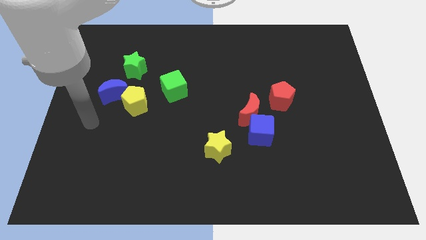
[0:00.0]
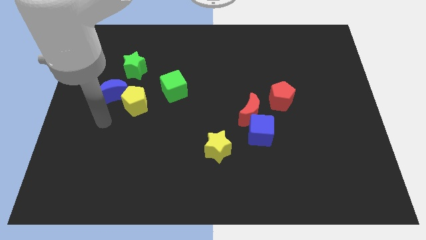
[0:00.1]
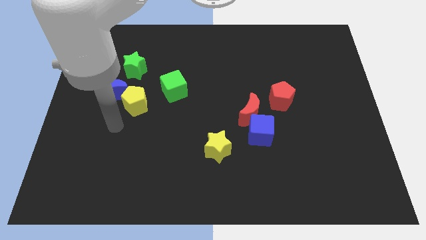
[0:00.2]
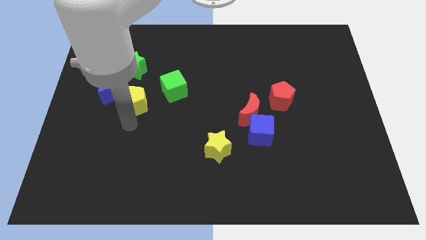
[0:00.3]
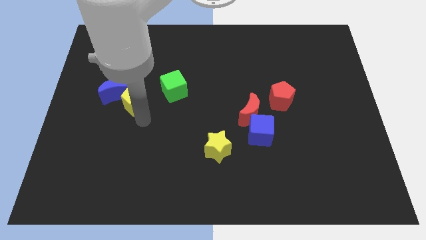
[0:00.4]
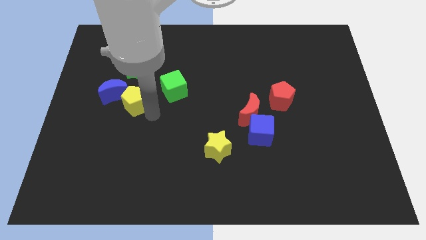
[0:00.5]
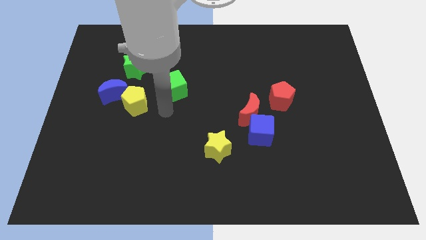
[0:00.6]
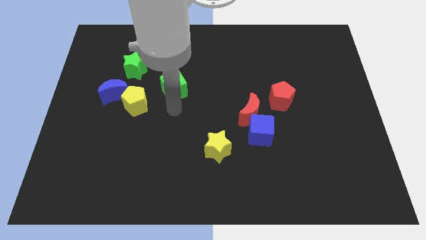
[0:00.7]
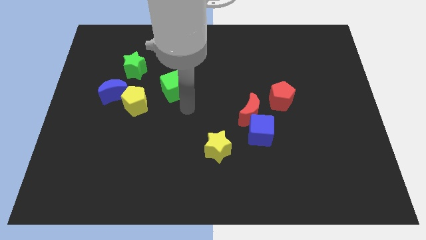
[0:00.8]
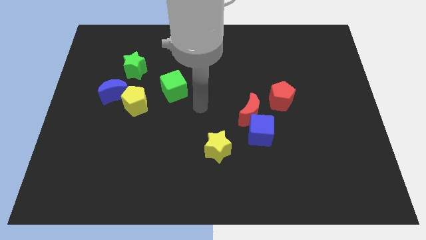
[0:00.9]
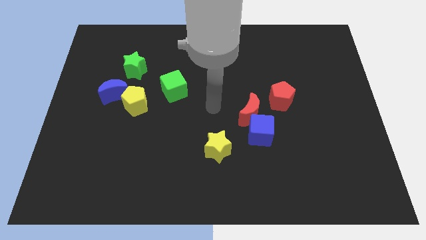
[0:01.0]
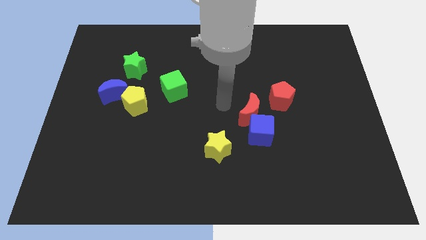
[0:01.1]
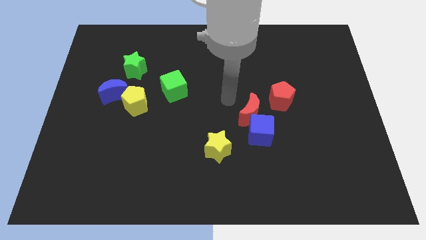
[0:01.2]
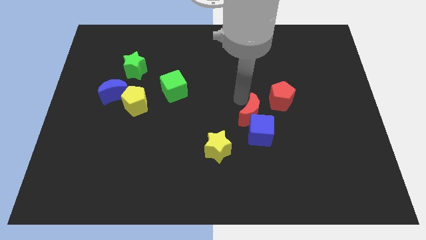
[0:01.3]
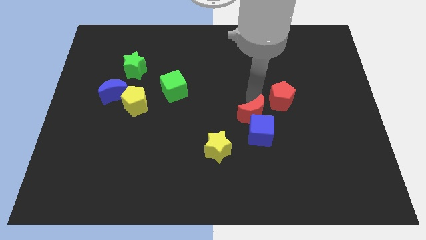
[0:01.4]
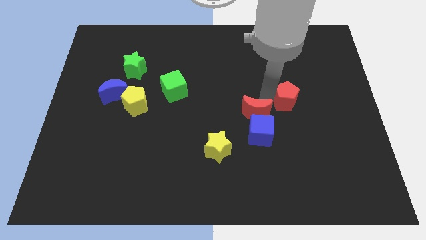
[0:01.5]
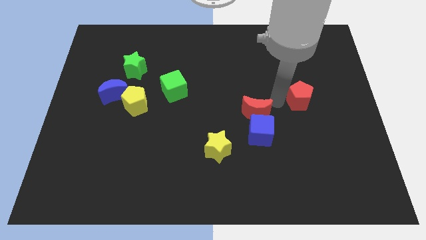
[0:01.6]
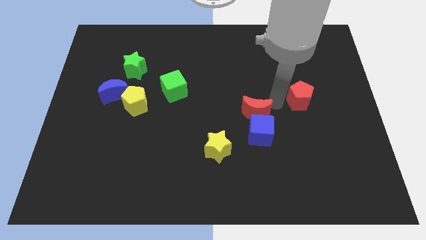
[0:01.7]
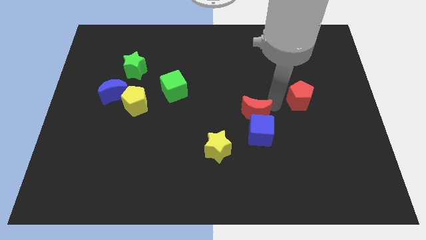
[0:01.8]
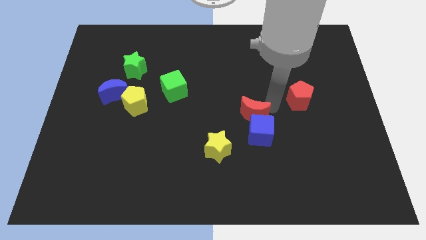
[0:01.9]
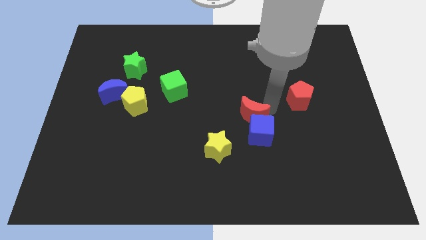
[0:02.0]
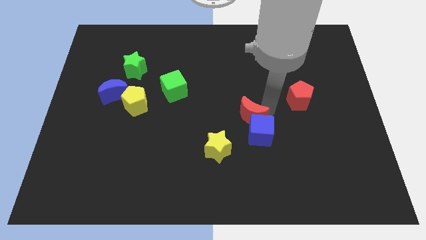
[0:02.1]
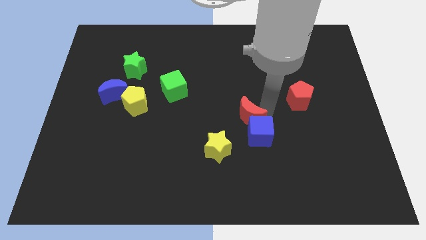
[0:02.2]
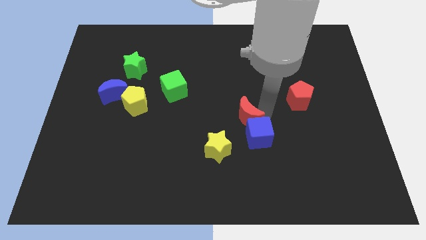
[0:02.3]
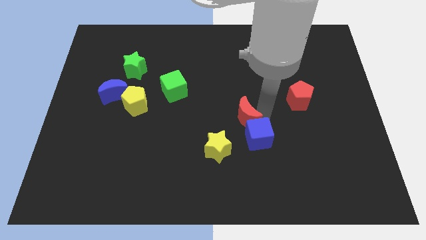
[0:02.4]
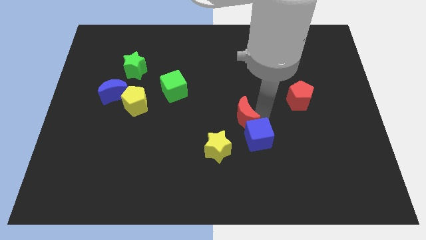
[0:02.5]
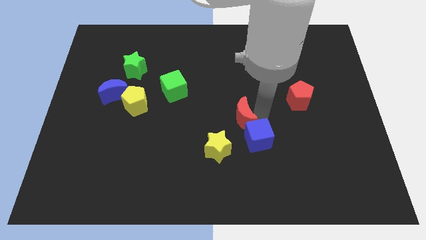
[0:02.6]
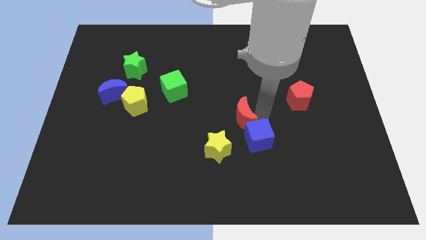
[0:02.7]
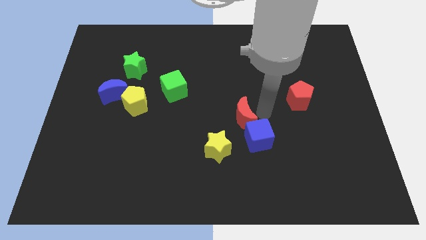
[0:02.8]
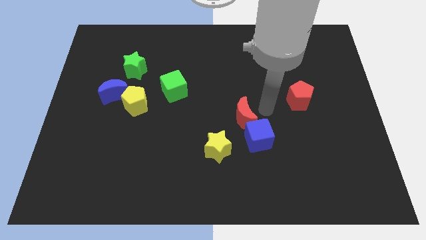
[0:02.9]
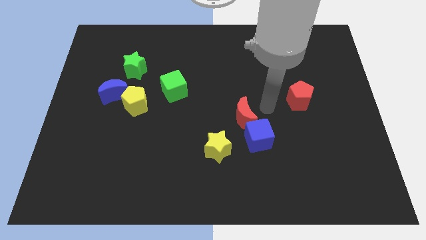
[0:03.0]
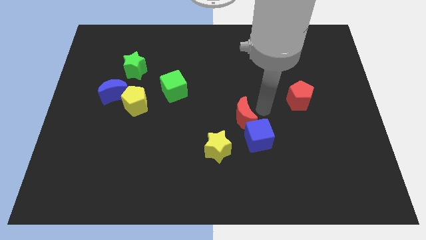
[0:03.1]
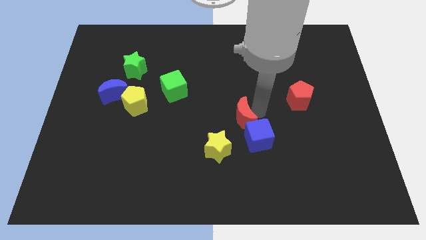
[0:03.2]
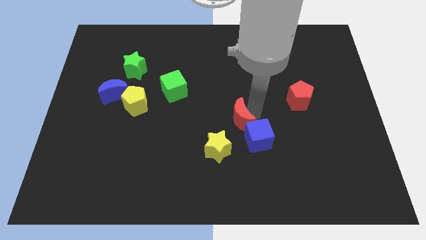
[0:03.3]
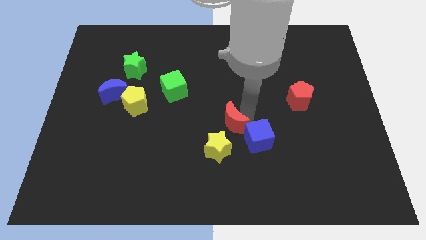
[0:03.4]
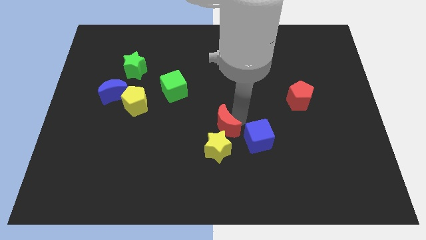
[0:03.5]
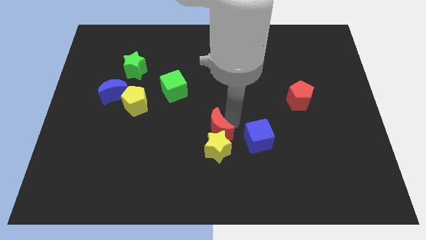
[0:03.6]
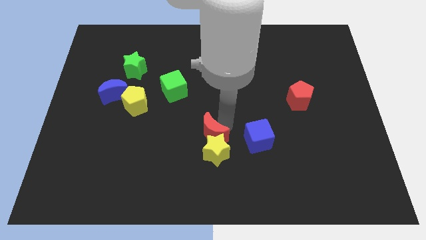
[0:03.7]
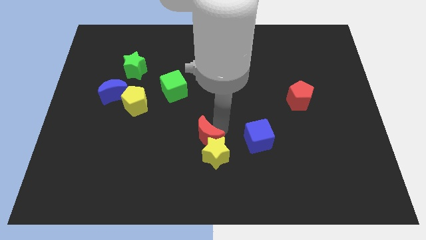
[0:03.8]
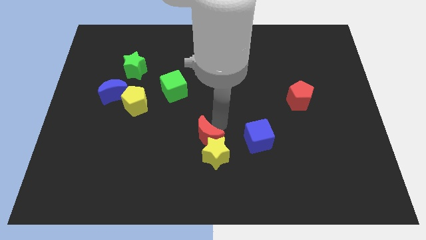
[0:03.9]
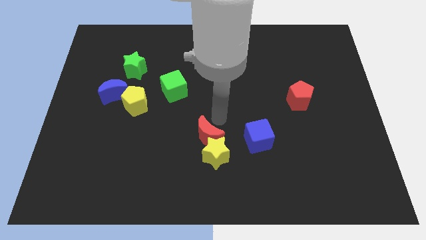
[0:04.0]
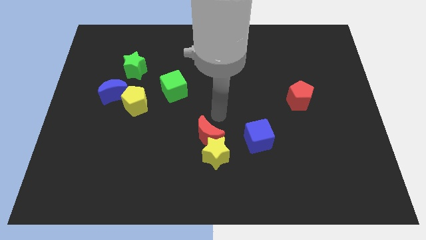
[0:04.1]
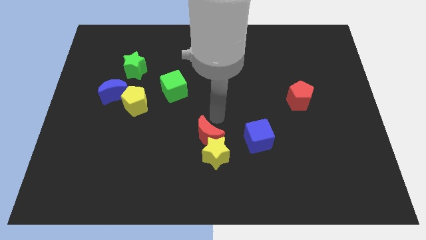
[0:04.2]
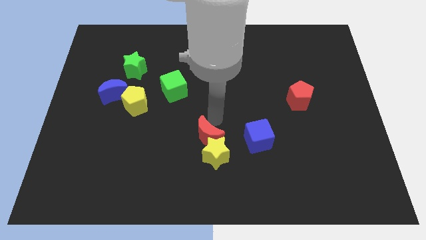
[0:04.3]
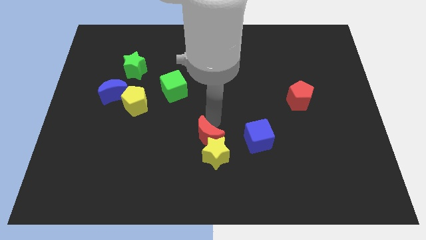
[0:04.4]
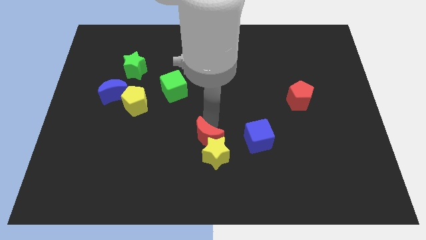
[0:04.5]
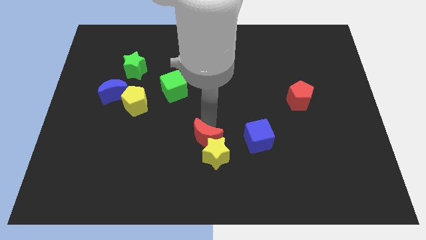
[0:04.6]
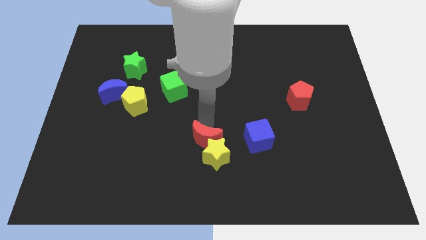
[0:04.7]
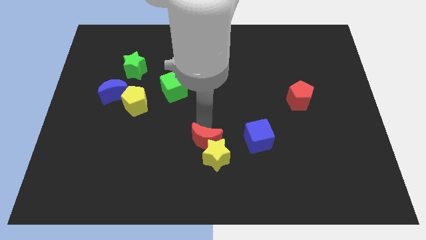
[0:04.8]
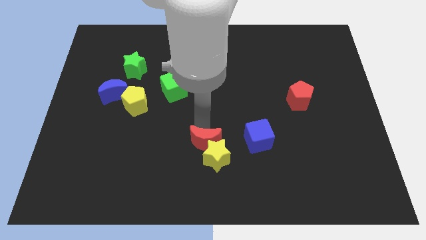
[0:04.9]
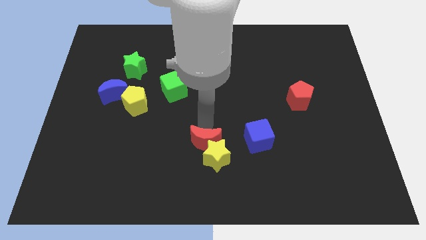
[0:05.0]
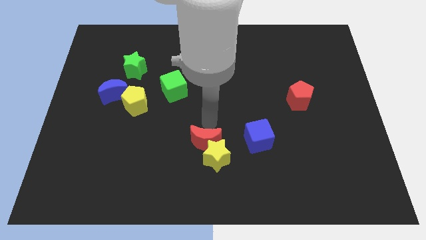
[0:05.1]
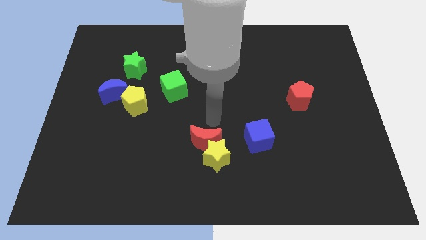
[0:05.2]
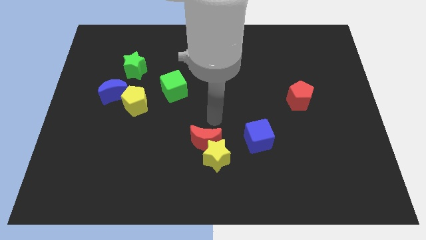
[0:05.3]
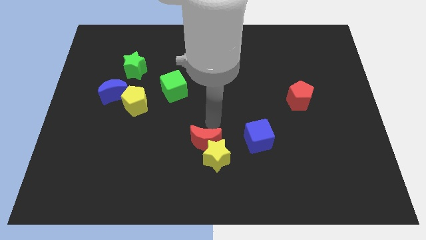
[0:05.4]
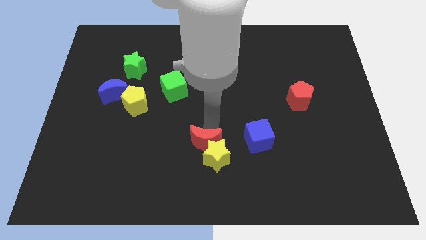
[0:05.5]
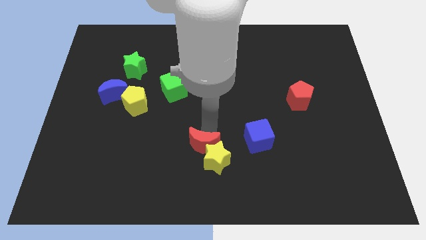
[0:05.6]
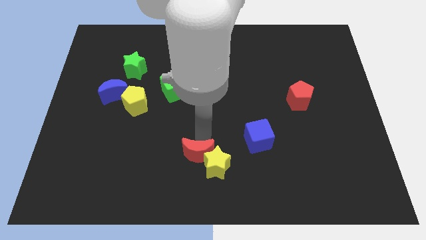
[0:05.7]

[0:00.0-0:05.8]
put the red moon to the bottom side

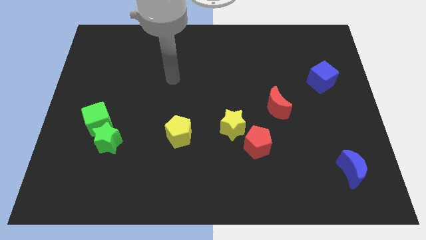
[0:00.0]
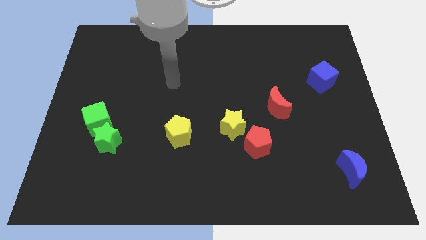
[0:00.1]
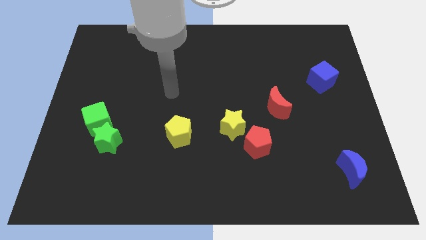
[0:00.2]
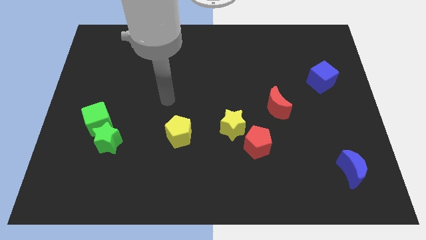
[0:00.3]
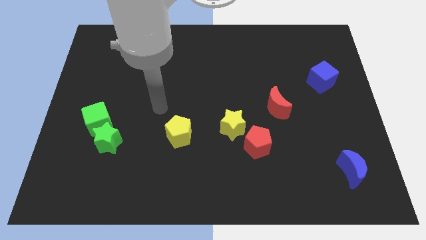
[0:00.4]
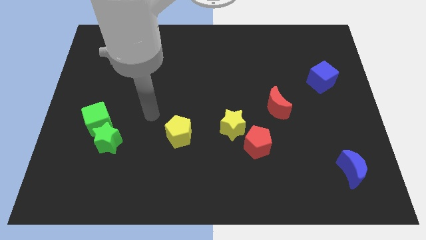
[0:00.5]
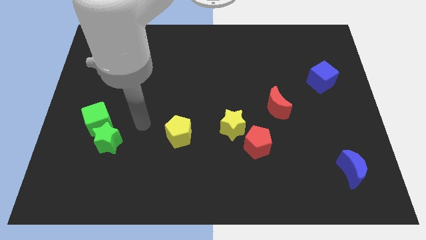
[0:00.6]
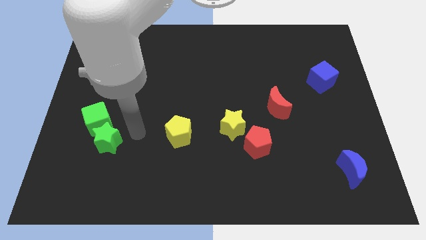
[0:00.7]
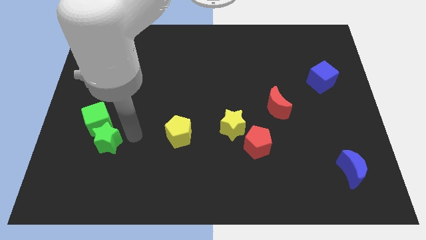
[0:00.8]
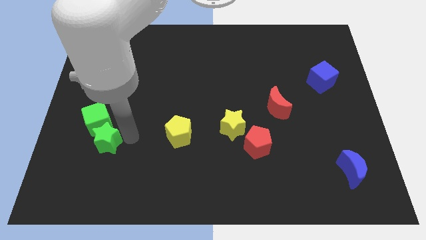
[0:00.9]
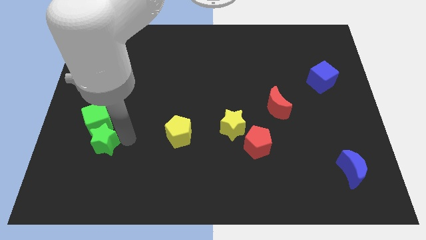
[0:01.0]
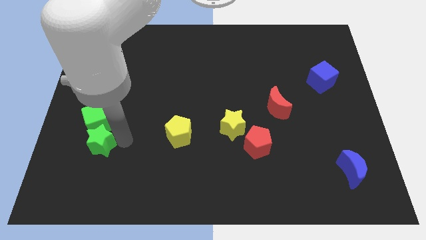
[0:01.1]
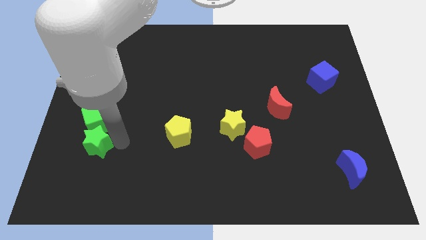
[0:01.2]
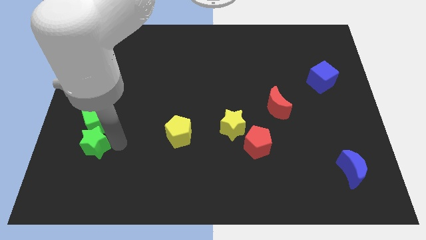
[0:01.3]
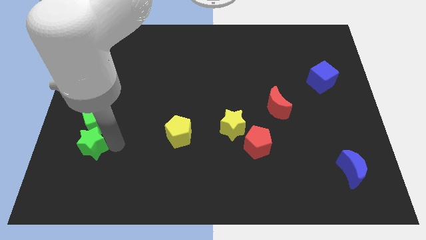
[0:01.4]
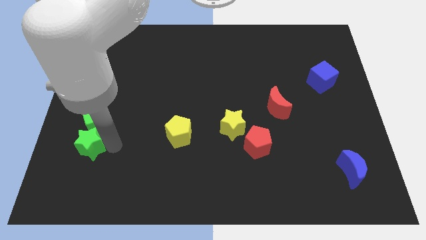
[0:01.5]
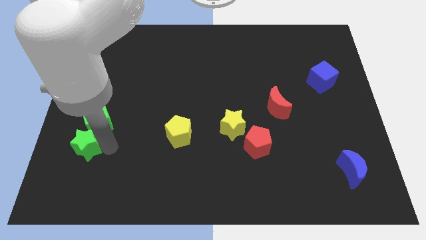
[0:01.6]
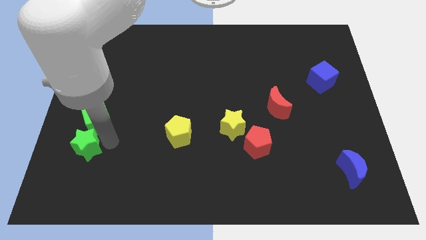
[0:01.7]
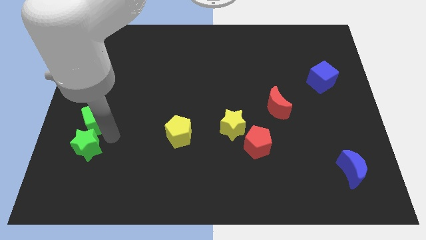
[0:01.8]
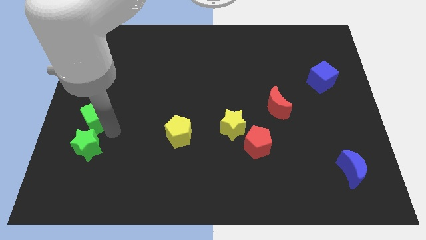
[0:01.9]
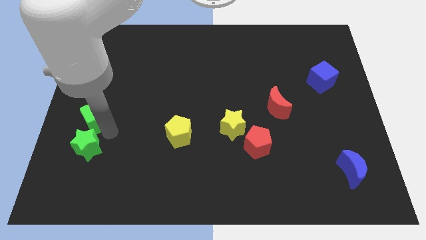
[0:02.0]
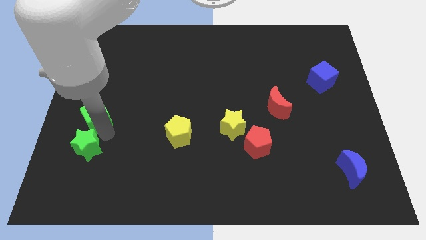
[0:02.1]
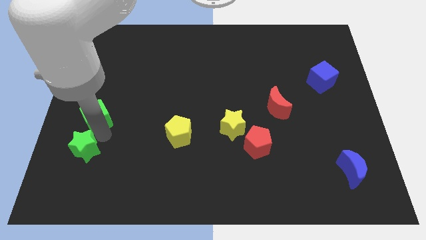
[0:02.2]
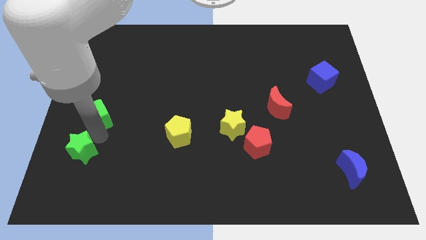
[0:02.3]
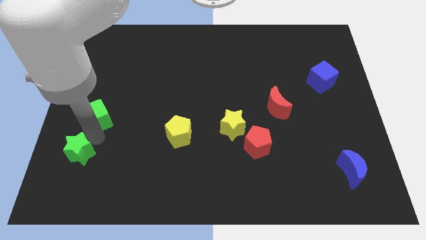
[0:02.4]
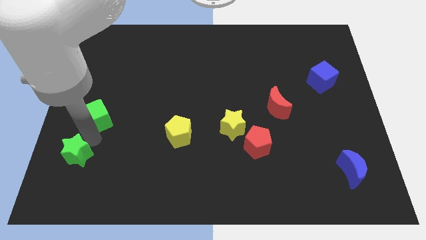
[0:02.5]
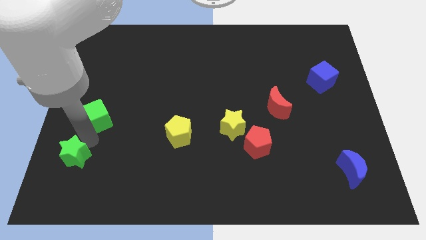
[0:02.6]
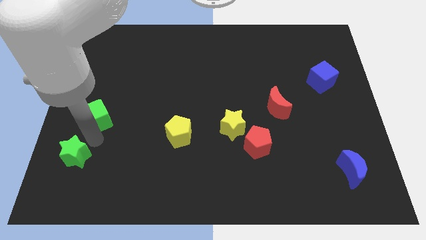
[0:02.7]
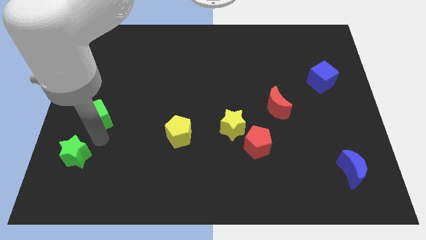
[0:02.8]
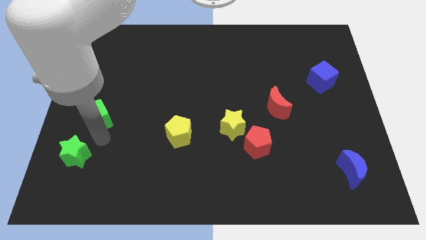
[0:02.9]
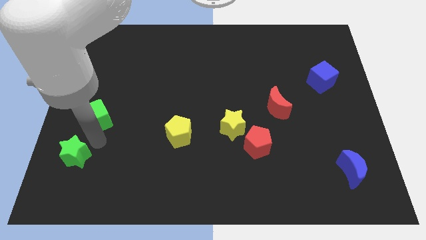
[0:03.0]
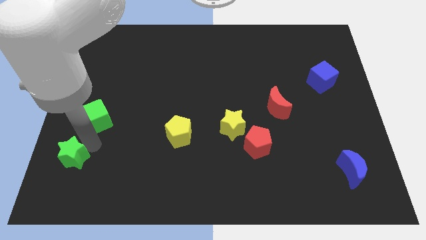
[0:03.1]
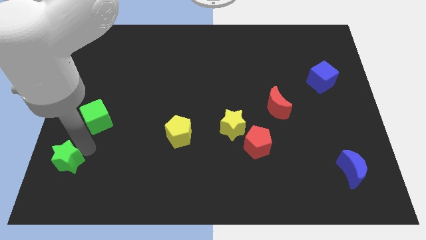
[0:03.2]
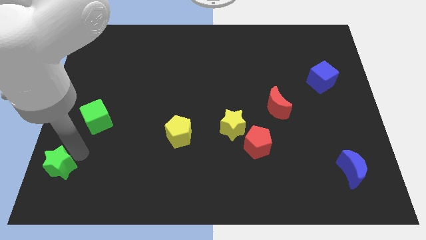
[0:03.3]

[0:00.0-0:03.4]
slide the green star to the bottom left corner
